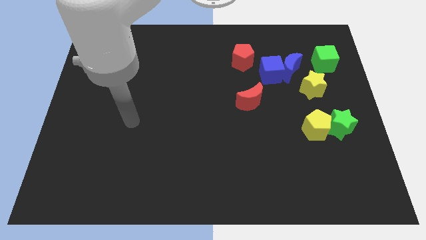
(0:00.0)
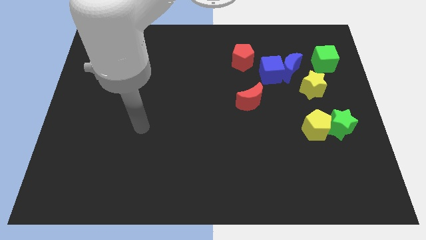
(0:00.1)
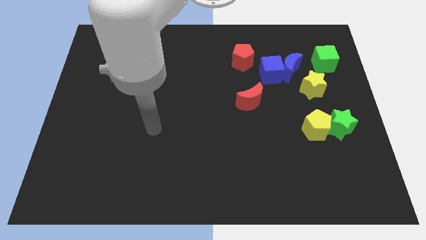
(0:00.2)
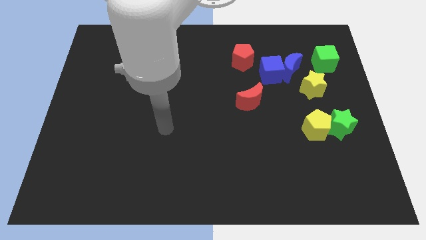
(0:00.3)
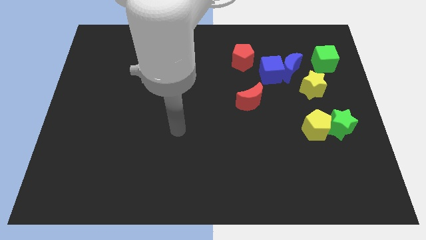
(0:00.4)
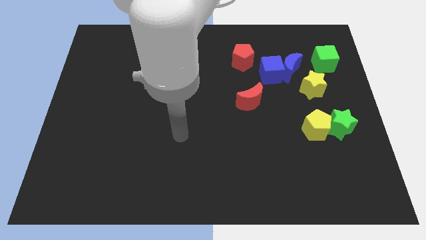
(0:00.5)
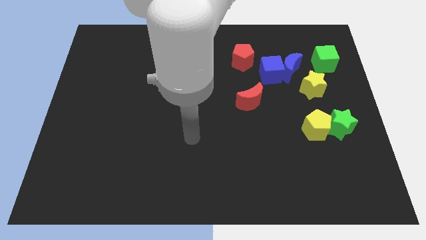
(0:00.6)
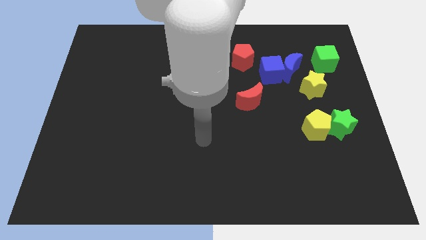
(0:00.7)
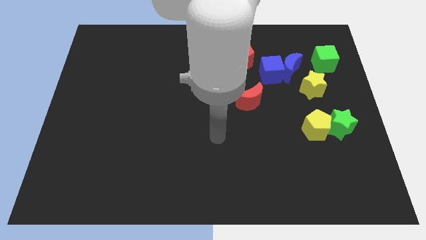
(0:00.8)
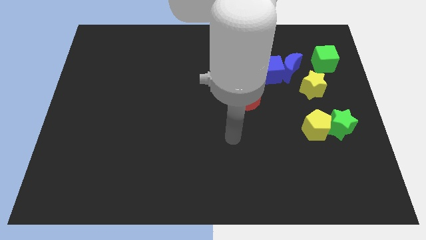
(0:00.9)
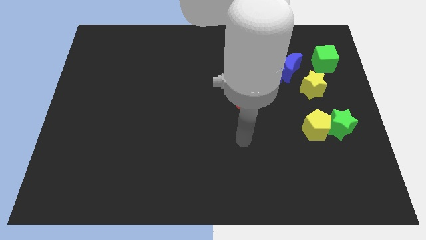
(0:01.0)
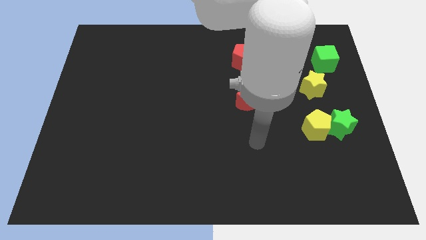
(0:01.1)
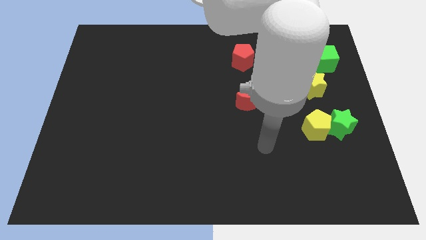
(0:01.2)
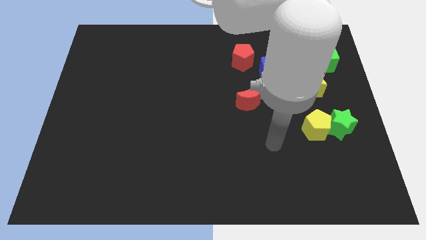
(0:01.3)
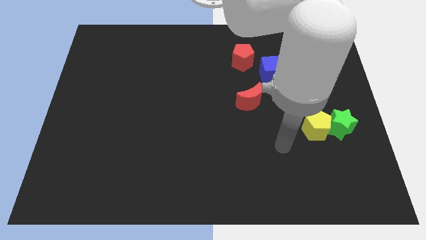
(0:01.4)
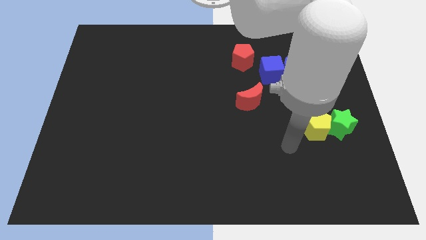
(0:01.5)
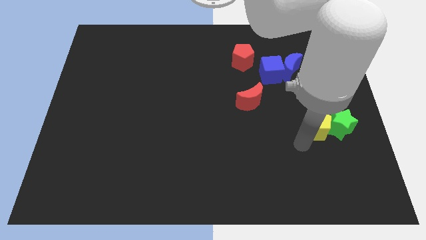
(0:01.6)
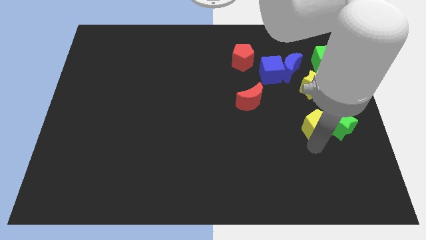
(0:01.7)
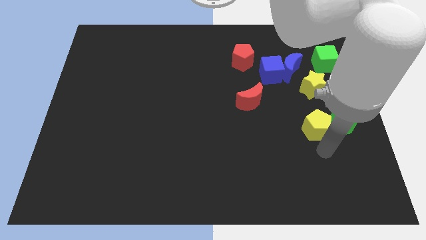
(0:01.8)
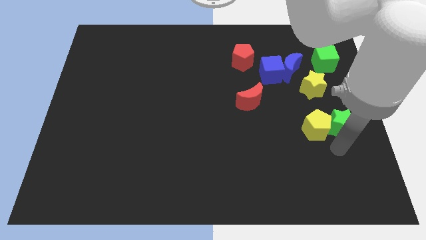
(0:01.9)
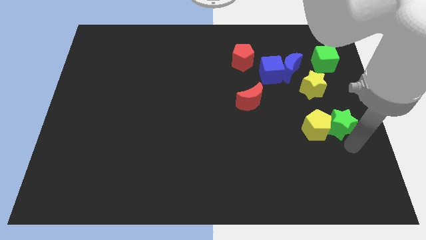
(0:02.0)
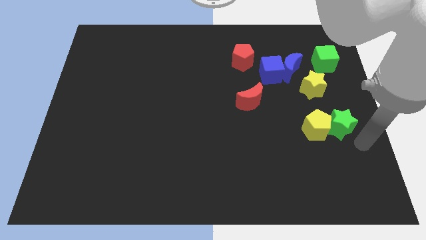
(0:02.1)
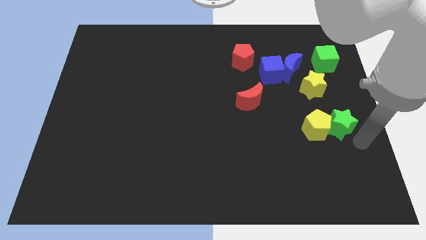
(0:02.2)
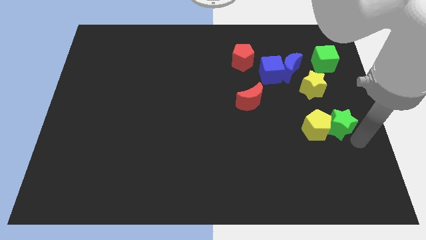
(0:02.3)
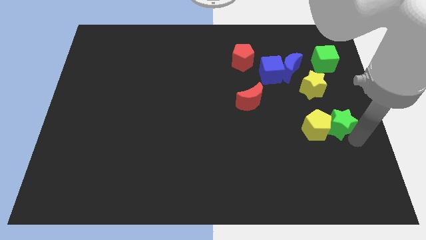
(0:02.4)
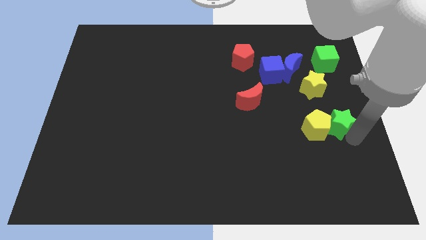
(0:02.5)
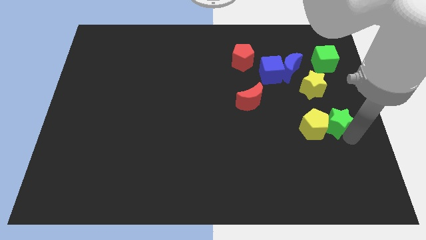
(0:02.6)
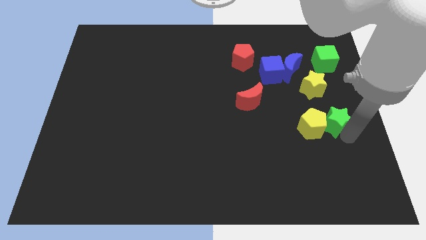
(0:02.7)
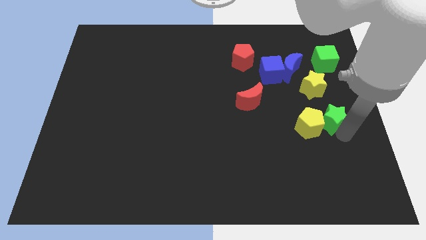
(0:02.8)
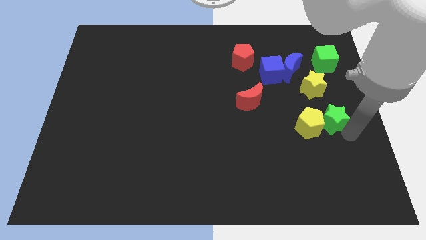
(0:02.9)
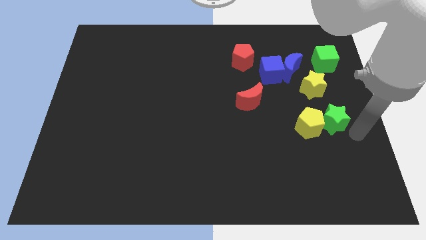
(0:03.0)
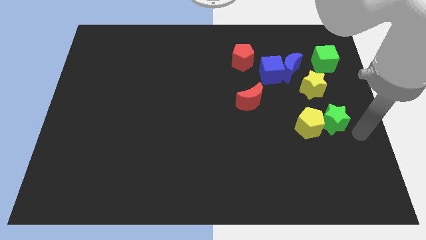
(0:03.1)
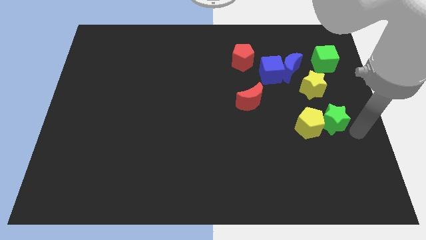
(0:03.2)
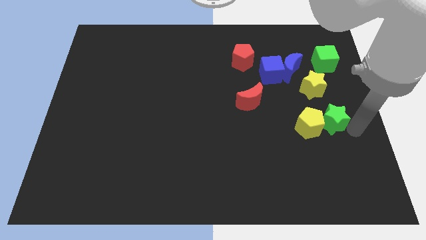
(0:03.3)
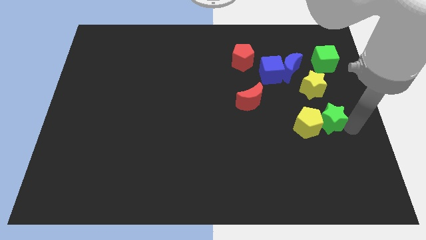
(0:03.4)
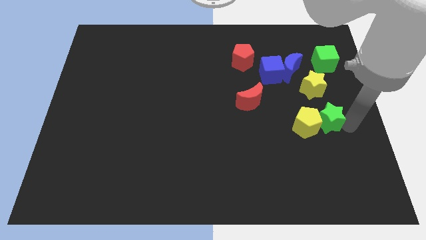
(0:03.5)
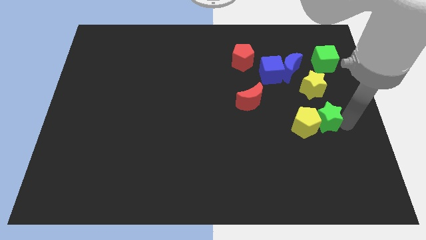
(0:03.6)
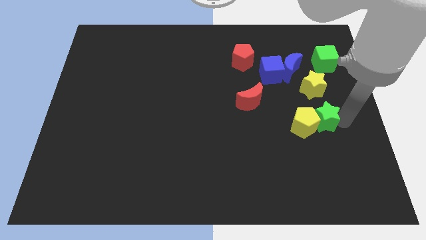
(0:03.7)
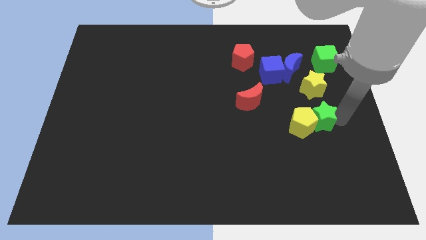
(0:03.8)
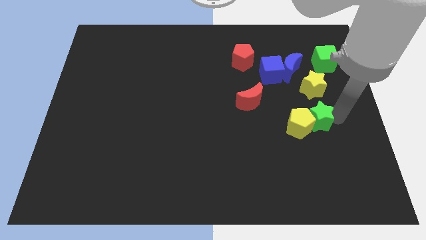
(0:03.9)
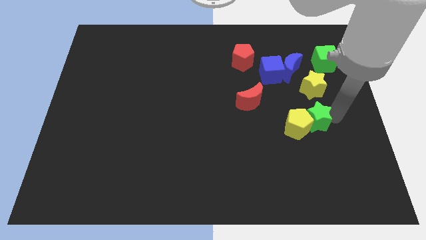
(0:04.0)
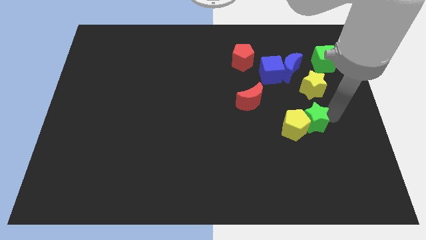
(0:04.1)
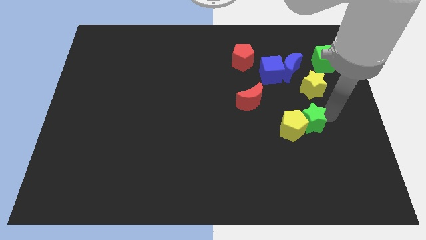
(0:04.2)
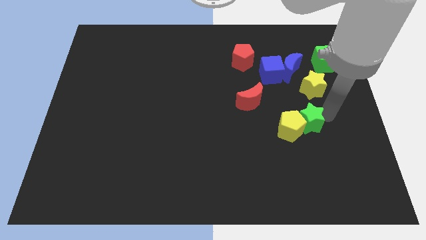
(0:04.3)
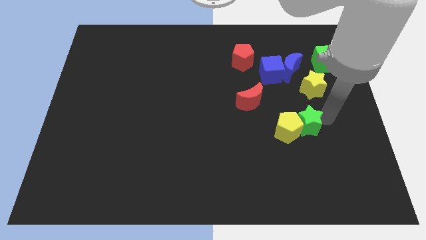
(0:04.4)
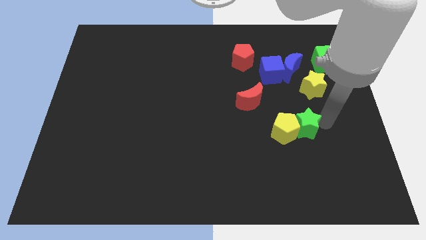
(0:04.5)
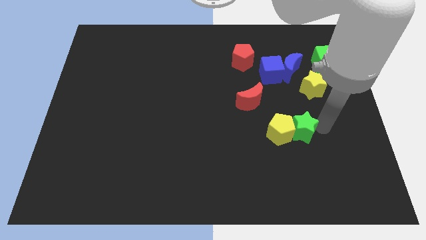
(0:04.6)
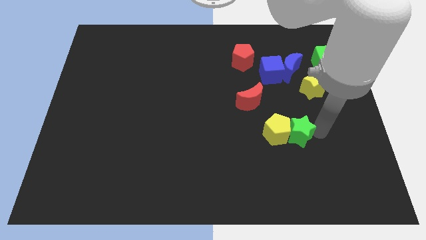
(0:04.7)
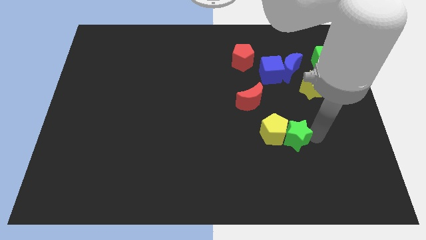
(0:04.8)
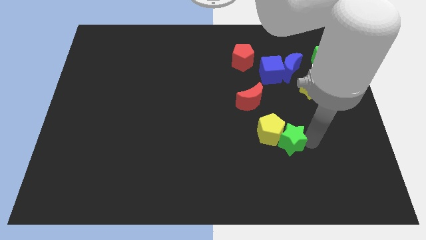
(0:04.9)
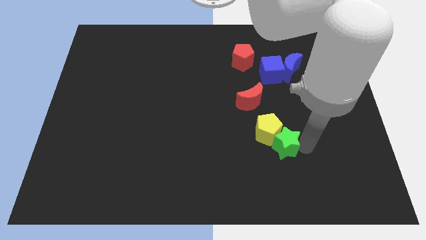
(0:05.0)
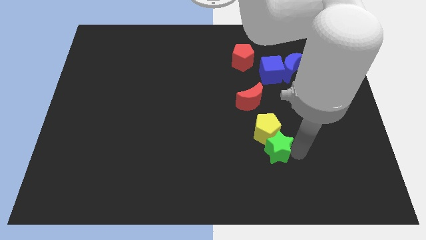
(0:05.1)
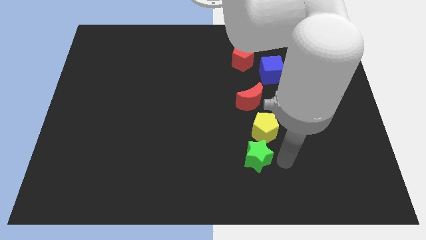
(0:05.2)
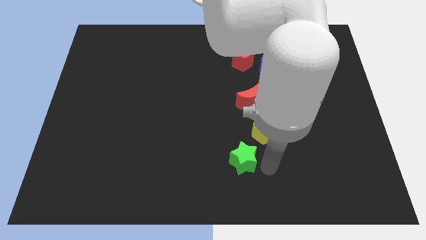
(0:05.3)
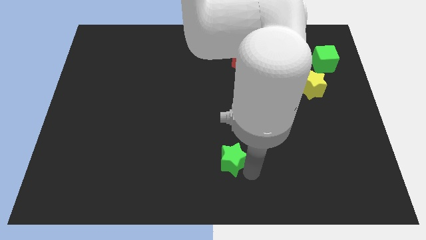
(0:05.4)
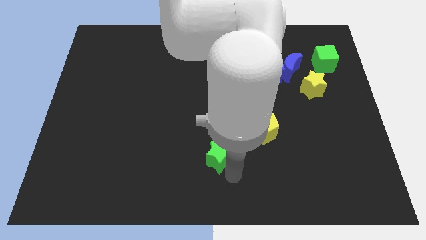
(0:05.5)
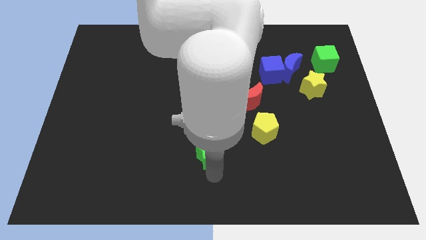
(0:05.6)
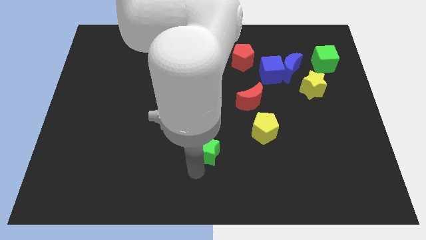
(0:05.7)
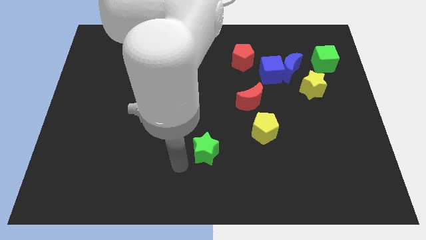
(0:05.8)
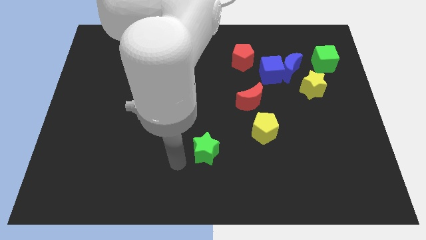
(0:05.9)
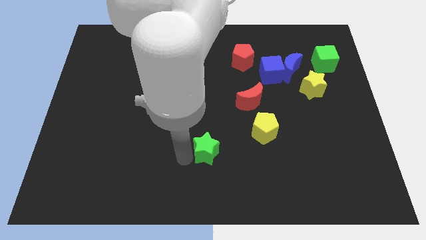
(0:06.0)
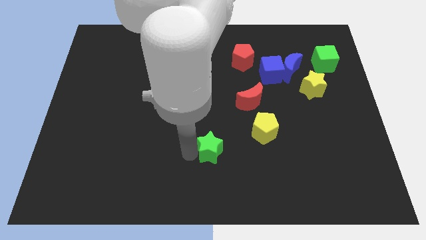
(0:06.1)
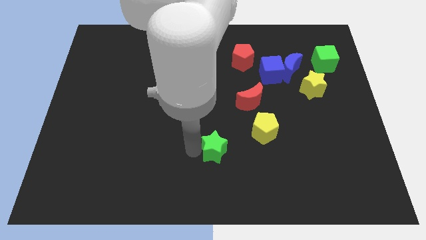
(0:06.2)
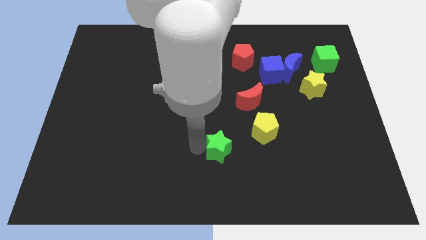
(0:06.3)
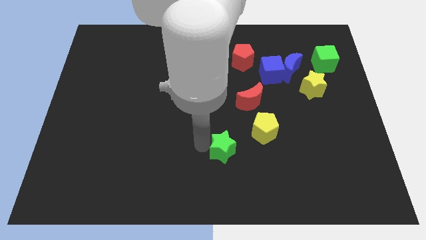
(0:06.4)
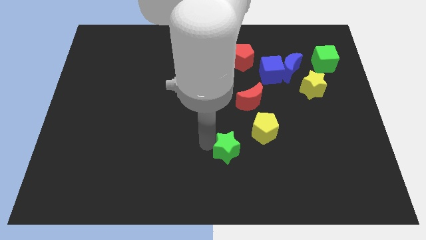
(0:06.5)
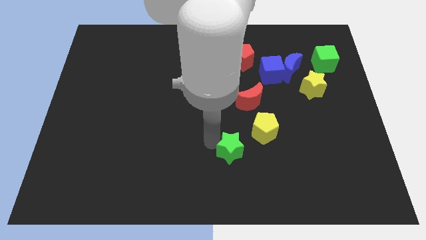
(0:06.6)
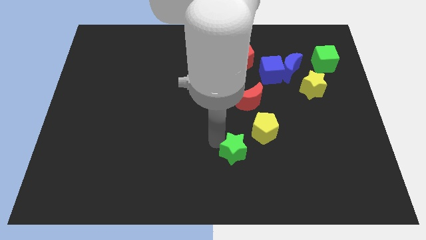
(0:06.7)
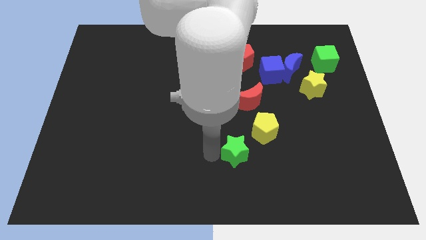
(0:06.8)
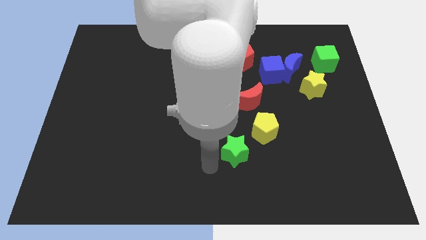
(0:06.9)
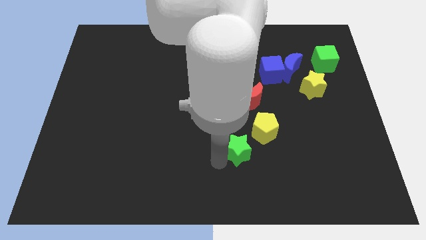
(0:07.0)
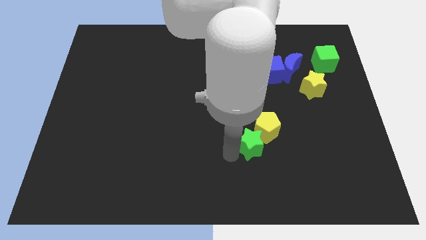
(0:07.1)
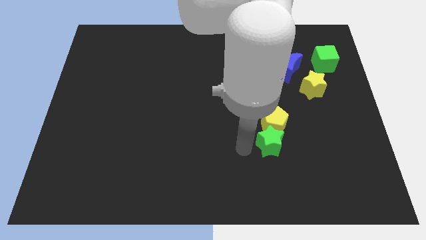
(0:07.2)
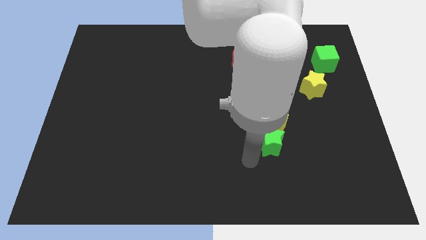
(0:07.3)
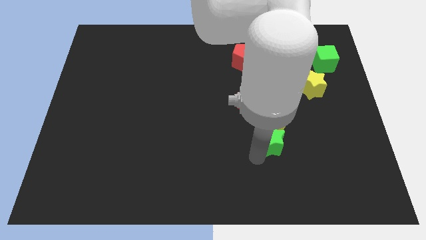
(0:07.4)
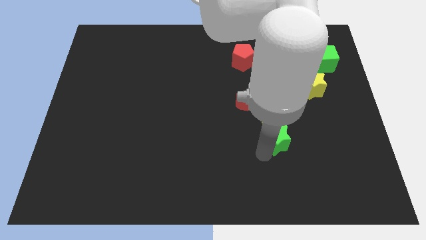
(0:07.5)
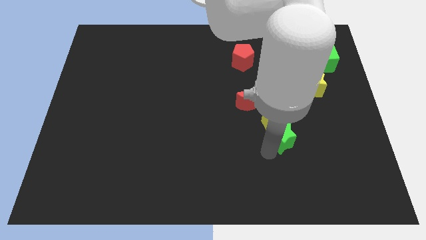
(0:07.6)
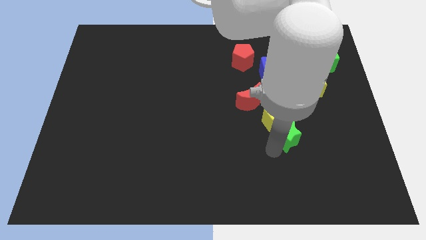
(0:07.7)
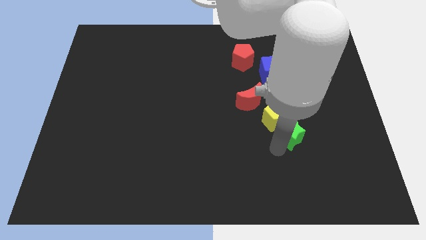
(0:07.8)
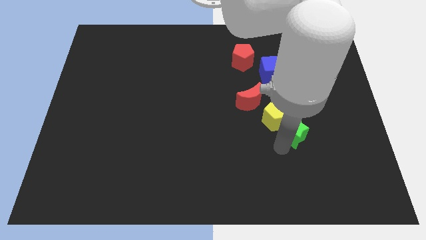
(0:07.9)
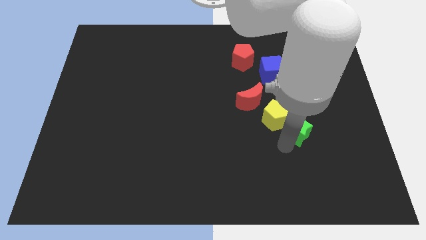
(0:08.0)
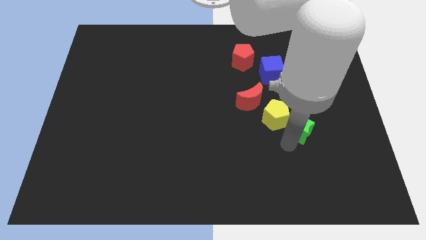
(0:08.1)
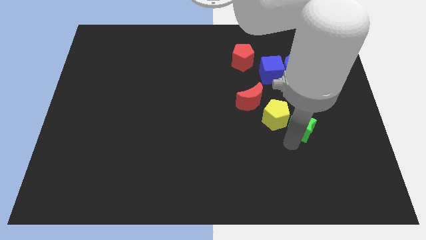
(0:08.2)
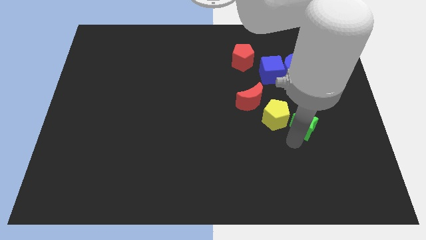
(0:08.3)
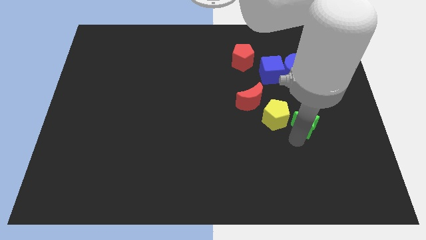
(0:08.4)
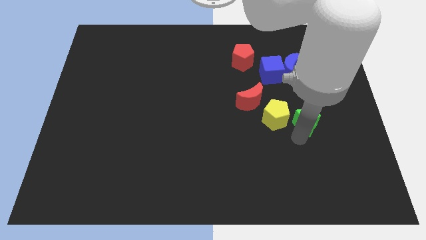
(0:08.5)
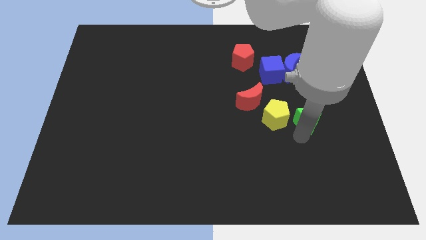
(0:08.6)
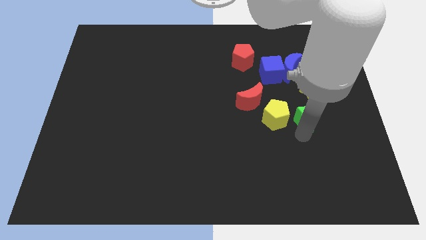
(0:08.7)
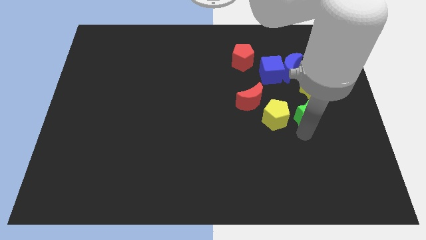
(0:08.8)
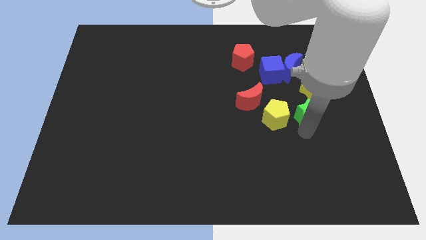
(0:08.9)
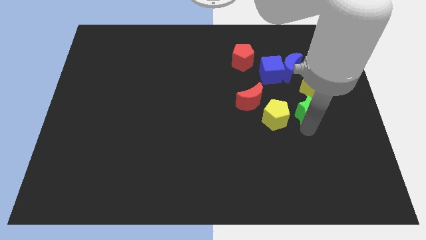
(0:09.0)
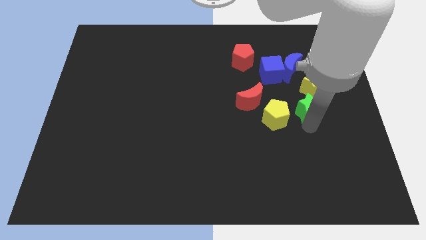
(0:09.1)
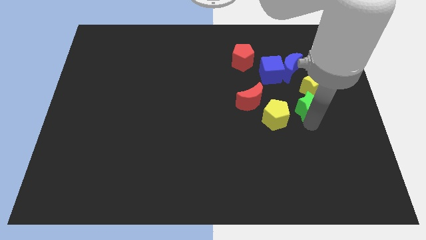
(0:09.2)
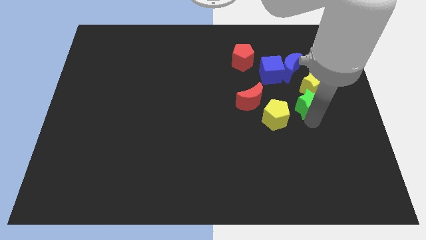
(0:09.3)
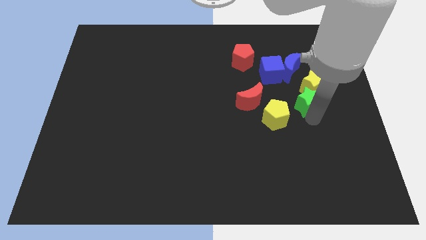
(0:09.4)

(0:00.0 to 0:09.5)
push the green star to the bottom right side of the blue cube
